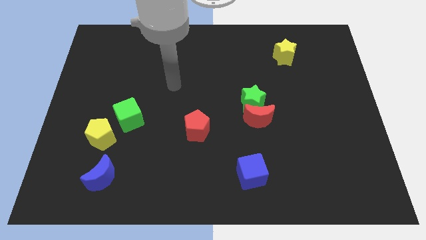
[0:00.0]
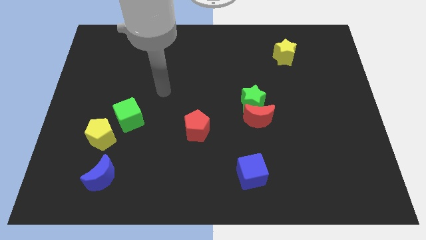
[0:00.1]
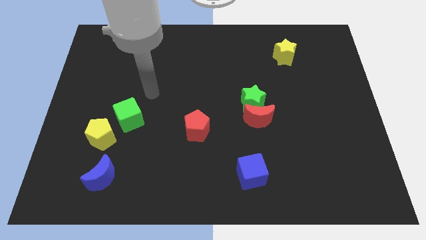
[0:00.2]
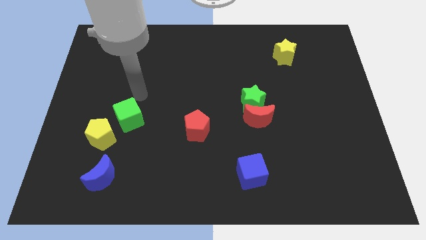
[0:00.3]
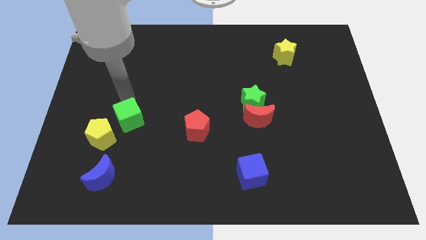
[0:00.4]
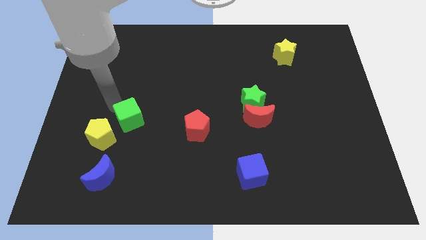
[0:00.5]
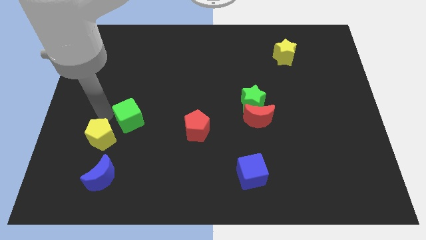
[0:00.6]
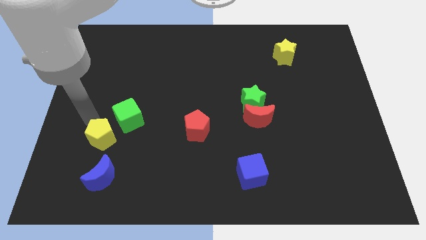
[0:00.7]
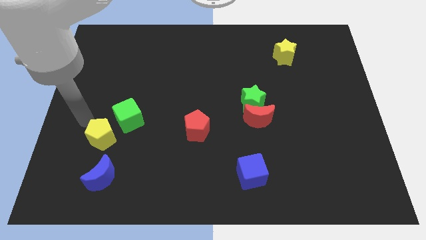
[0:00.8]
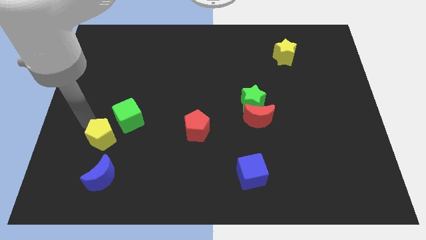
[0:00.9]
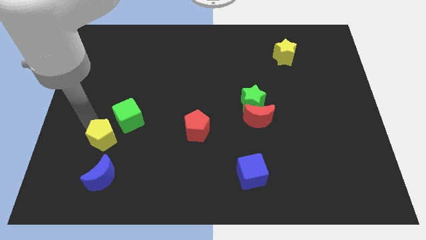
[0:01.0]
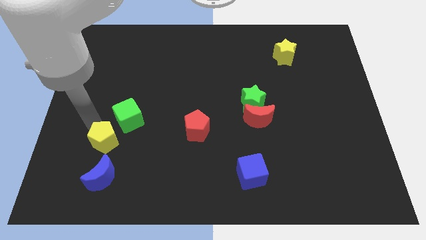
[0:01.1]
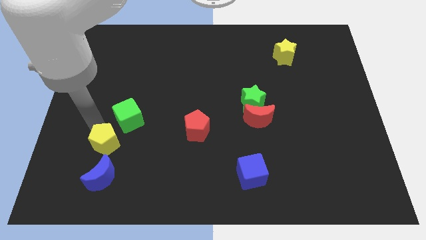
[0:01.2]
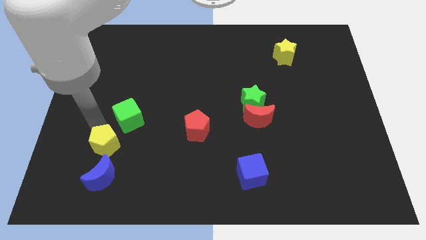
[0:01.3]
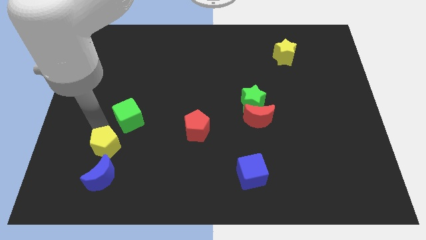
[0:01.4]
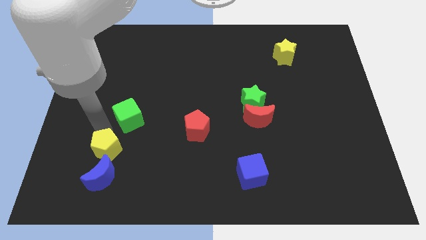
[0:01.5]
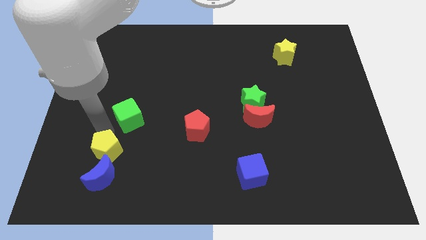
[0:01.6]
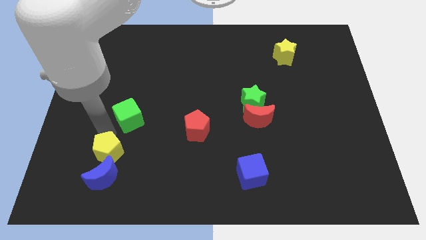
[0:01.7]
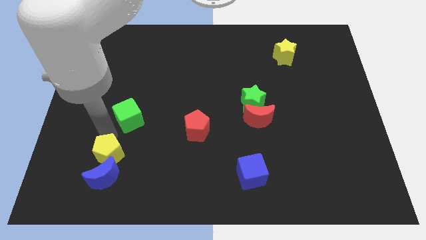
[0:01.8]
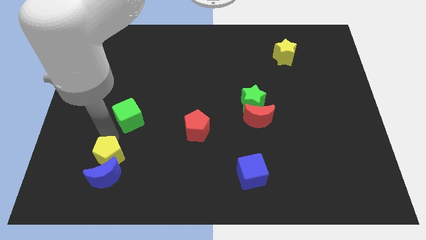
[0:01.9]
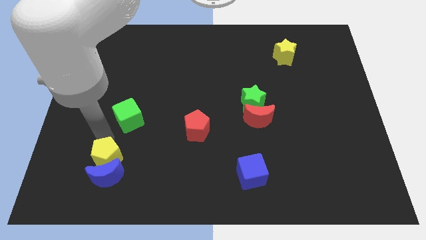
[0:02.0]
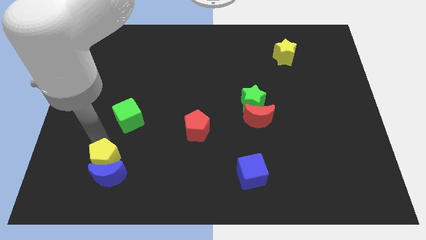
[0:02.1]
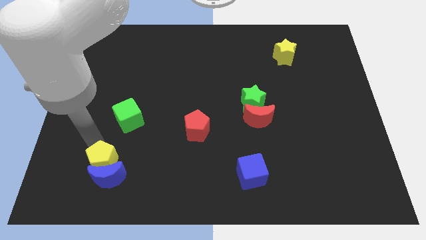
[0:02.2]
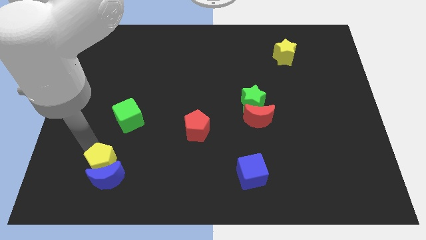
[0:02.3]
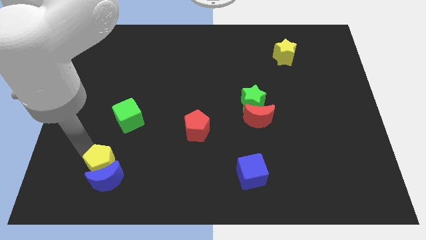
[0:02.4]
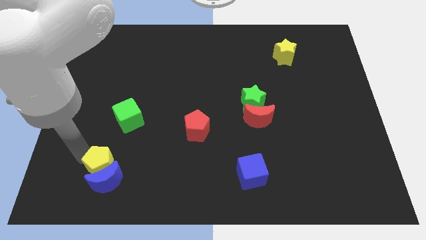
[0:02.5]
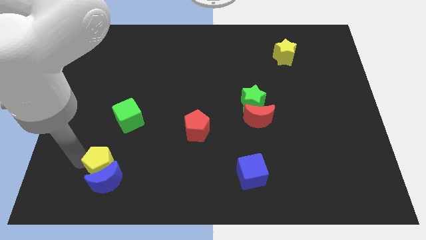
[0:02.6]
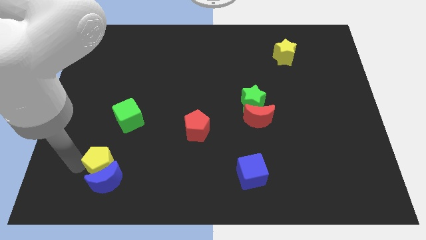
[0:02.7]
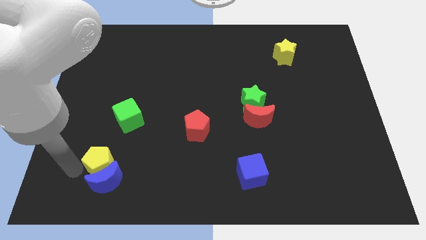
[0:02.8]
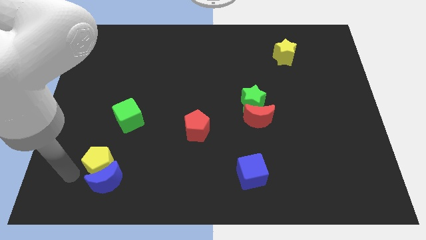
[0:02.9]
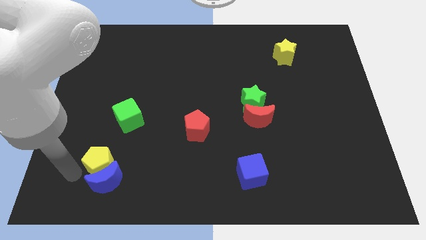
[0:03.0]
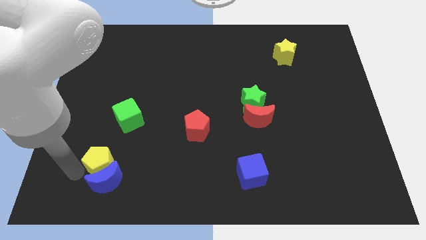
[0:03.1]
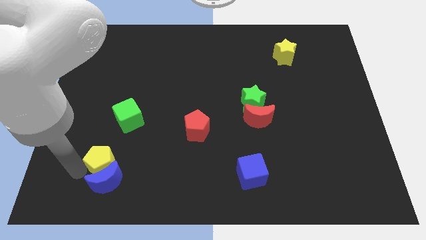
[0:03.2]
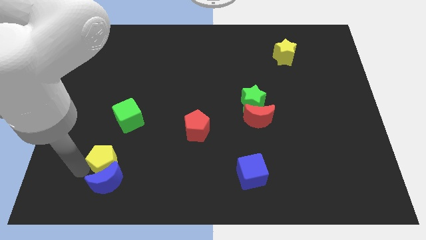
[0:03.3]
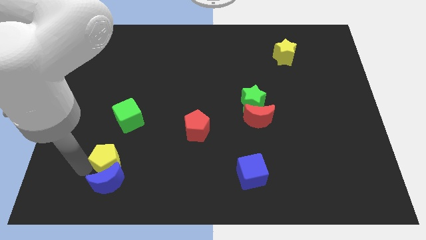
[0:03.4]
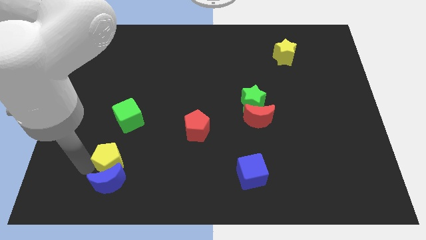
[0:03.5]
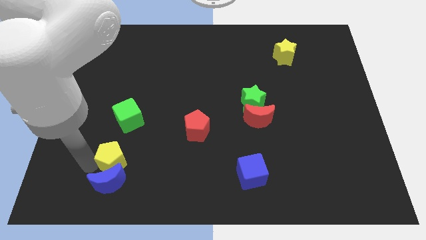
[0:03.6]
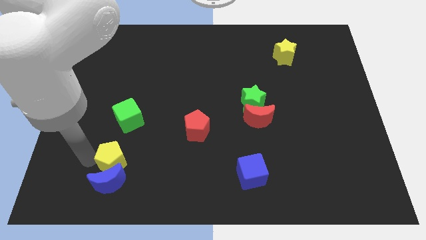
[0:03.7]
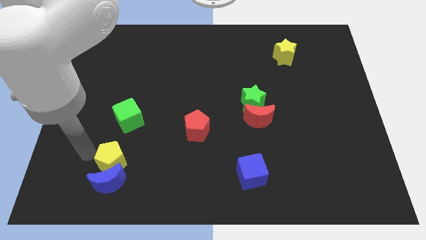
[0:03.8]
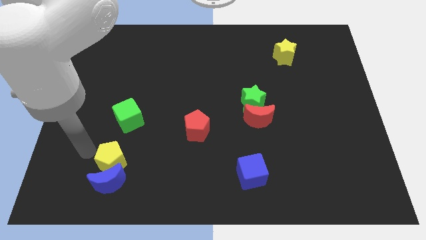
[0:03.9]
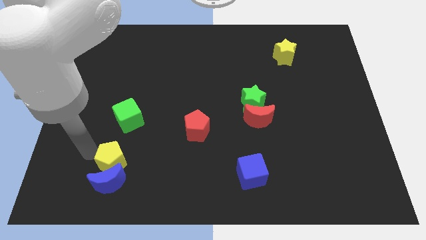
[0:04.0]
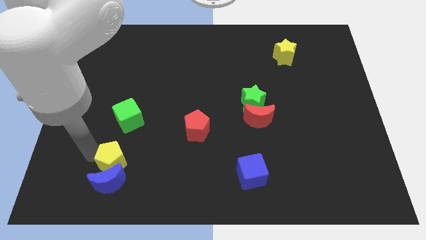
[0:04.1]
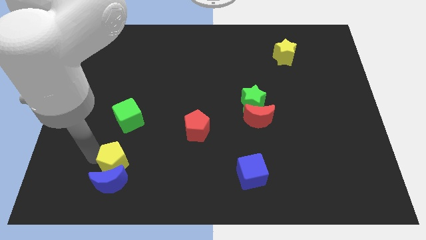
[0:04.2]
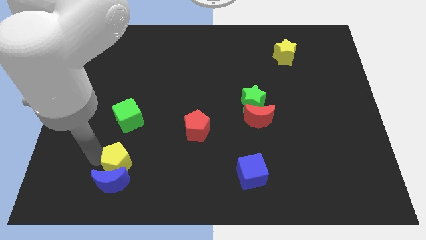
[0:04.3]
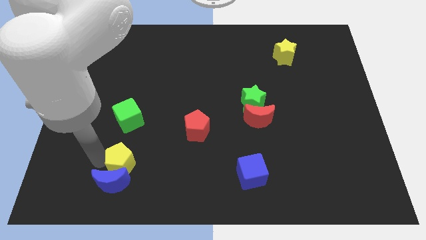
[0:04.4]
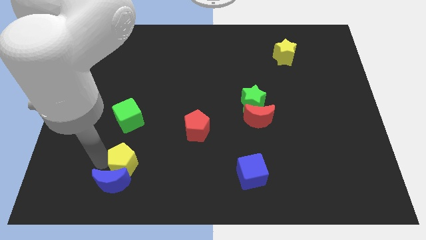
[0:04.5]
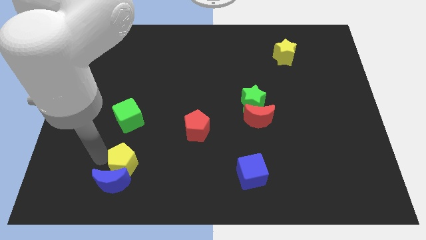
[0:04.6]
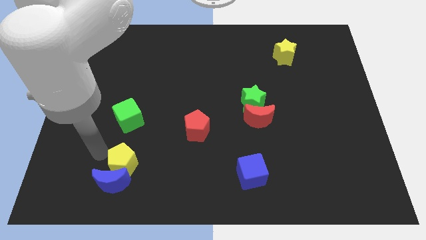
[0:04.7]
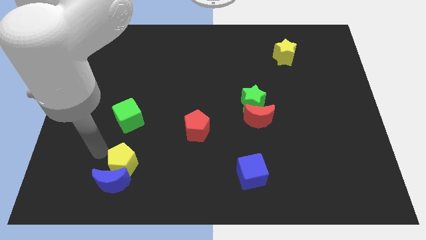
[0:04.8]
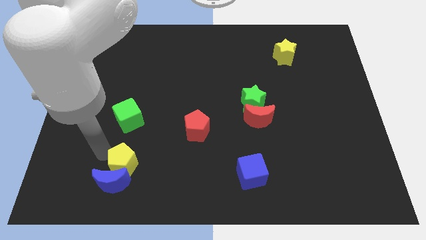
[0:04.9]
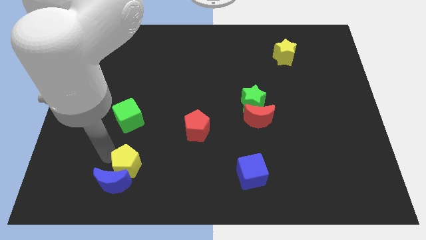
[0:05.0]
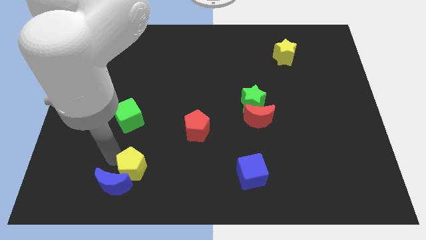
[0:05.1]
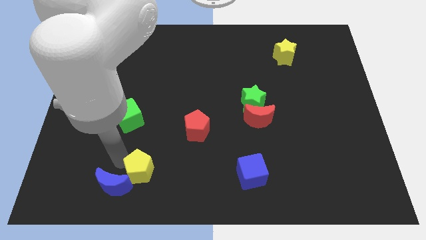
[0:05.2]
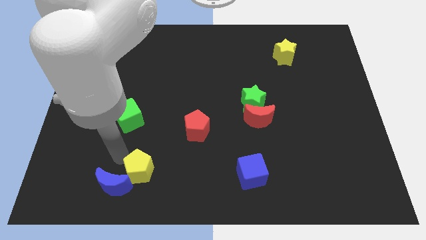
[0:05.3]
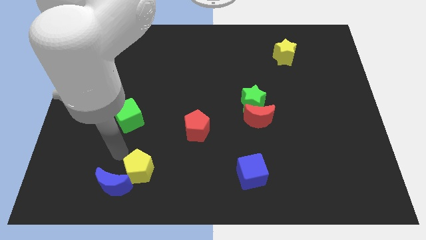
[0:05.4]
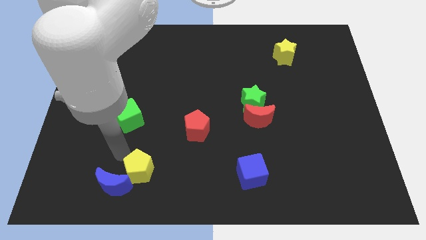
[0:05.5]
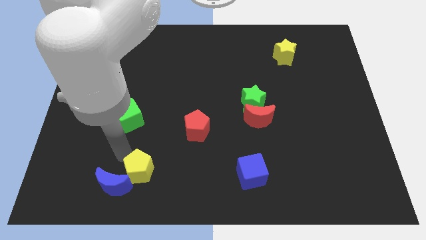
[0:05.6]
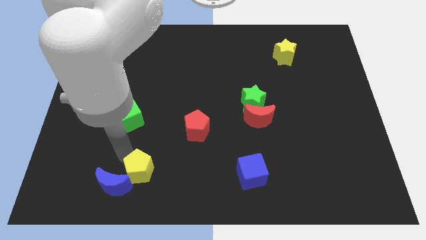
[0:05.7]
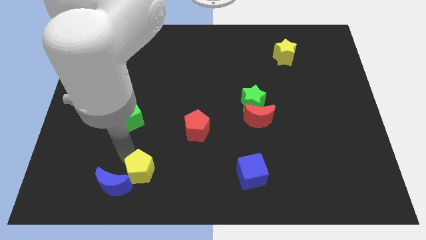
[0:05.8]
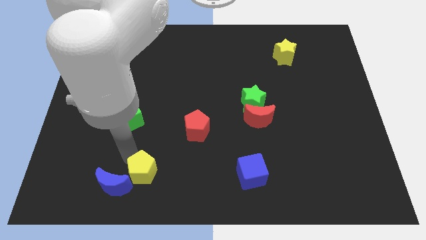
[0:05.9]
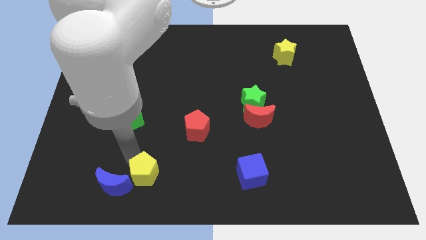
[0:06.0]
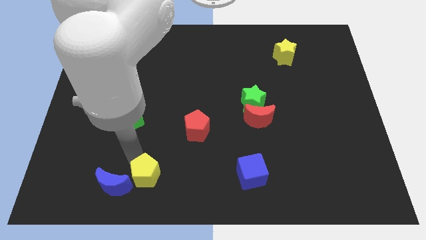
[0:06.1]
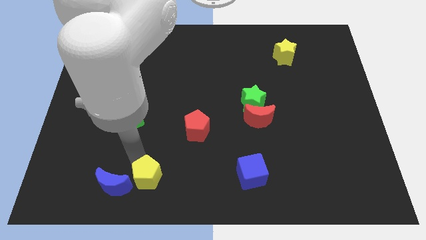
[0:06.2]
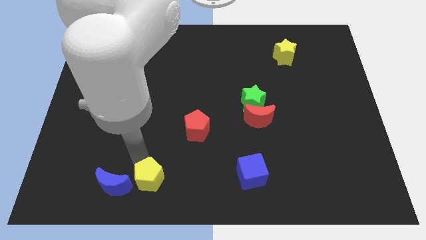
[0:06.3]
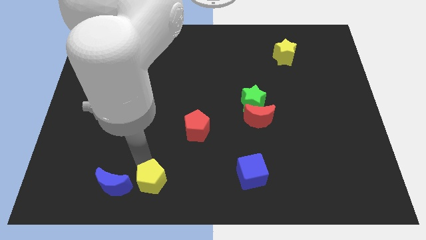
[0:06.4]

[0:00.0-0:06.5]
put the yellow pentagon to the bottom side

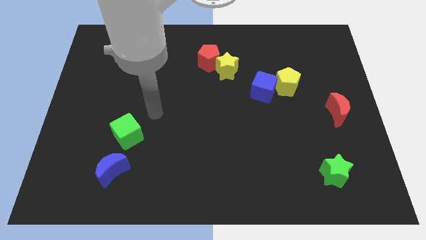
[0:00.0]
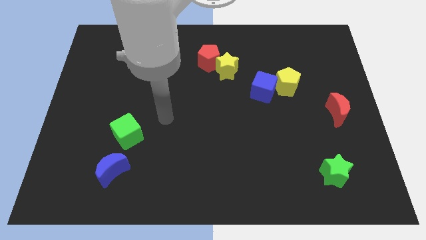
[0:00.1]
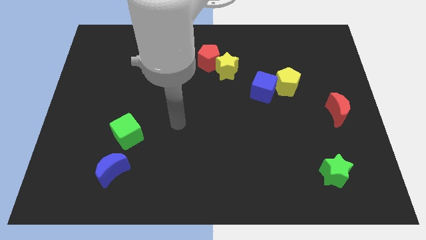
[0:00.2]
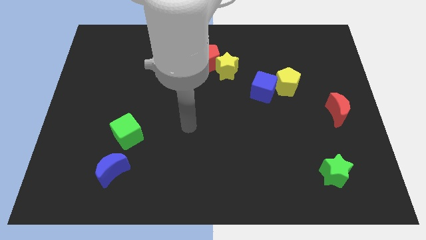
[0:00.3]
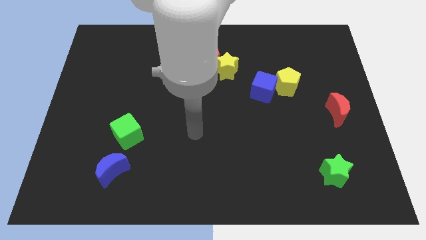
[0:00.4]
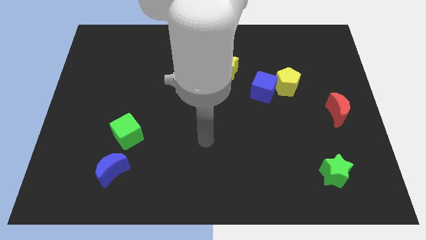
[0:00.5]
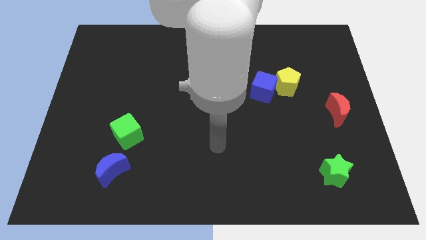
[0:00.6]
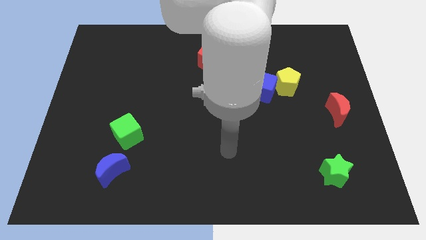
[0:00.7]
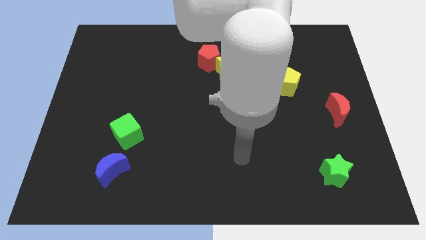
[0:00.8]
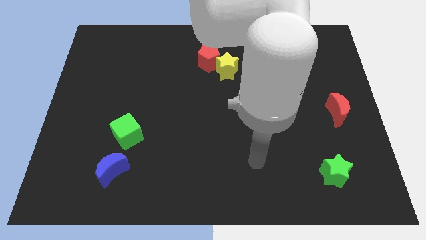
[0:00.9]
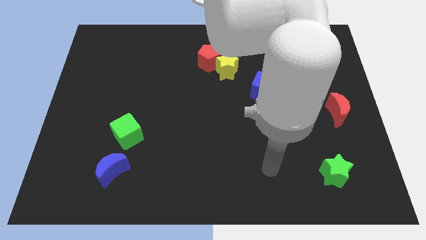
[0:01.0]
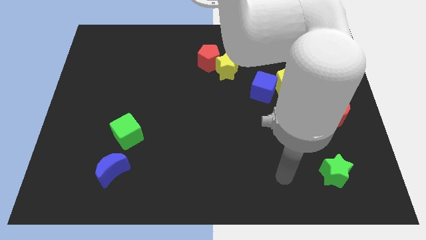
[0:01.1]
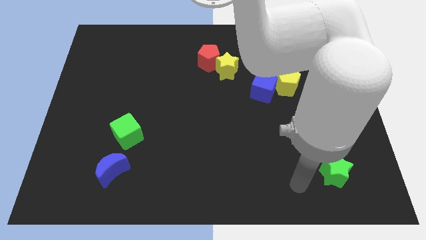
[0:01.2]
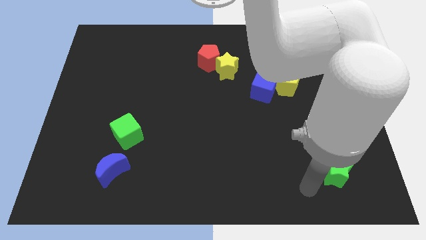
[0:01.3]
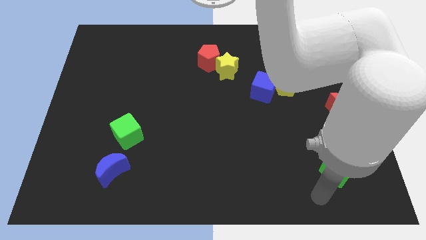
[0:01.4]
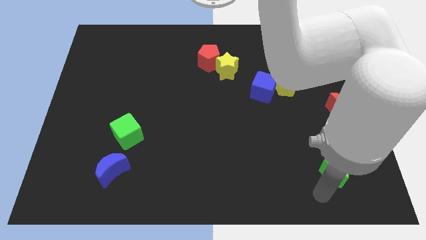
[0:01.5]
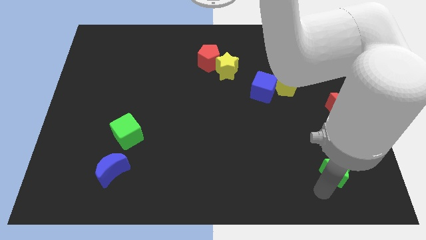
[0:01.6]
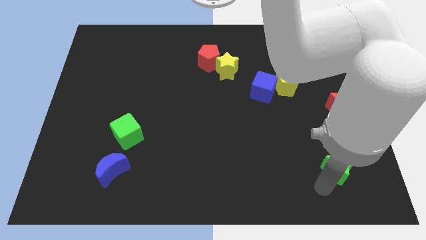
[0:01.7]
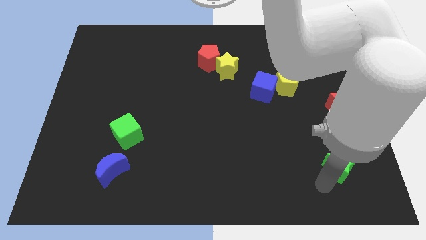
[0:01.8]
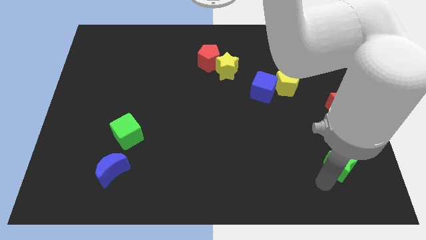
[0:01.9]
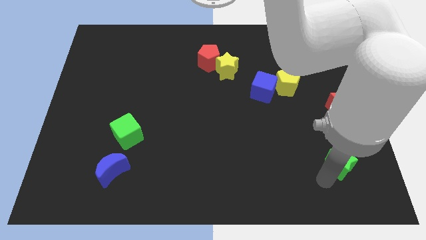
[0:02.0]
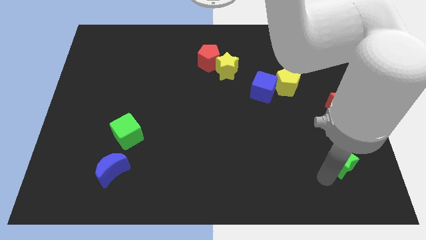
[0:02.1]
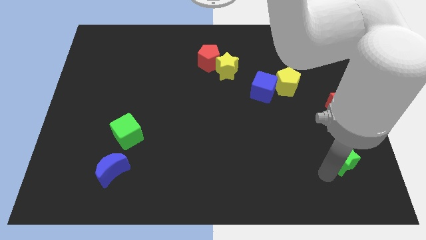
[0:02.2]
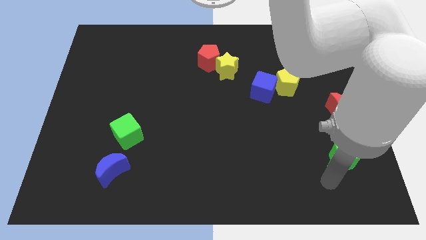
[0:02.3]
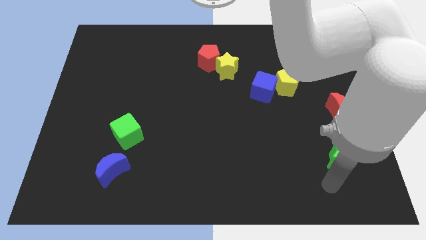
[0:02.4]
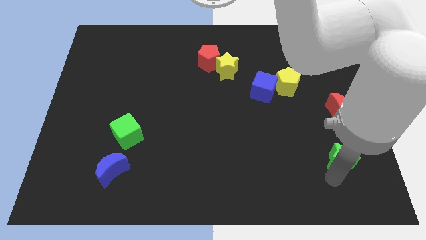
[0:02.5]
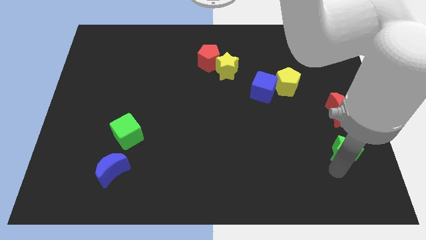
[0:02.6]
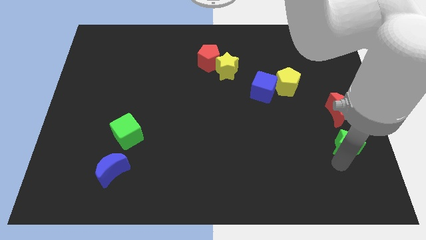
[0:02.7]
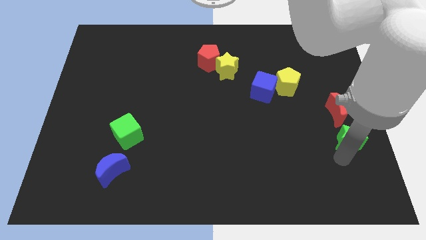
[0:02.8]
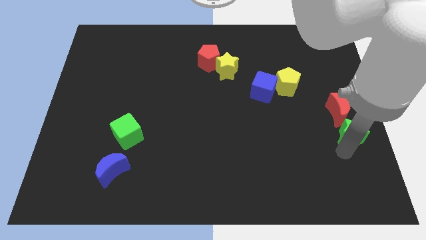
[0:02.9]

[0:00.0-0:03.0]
put the green star to the right side of the board
